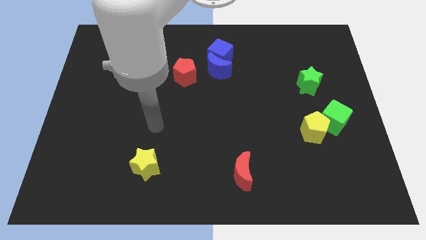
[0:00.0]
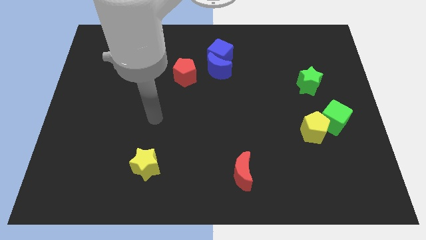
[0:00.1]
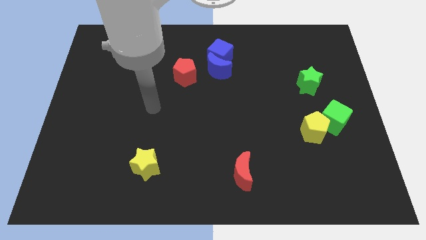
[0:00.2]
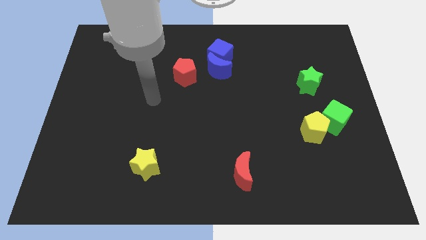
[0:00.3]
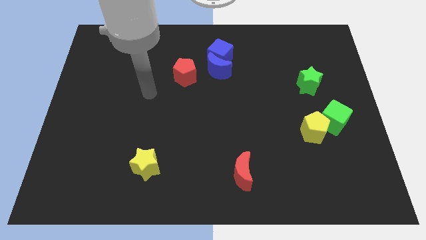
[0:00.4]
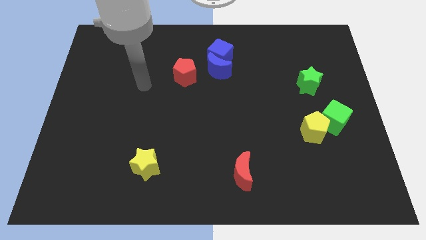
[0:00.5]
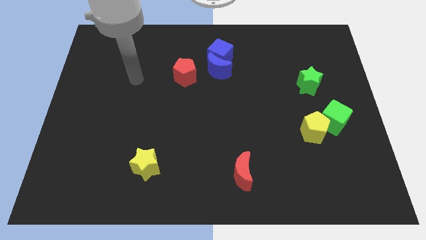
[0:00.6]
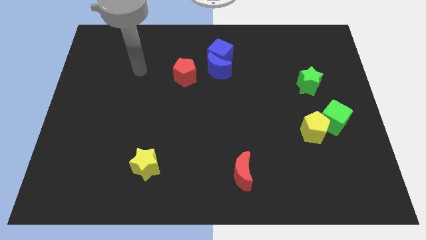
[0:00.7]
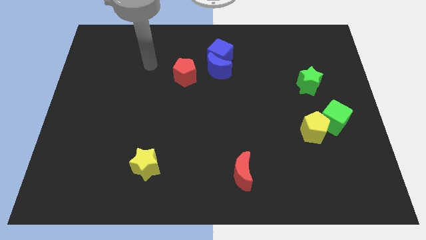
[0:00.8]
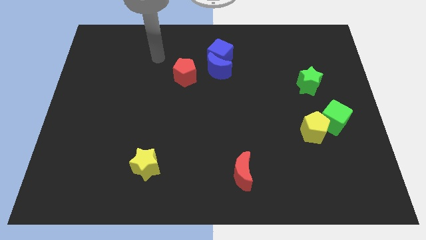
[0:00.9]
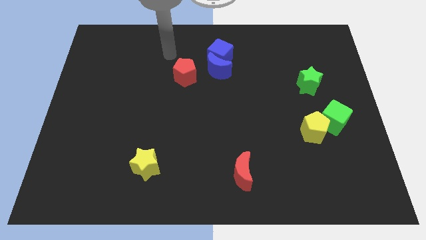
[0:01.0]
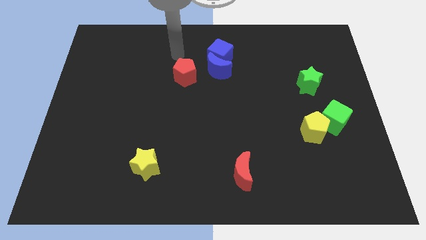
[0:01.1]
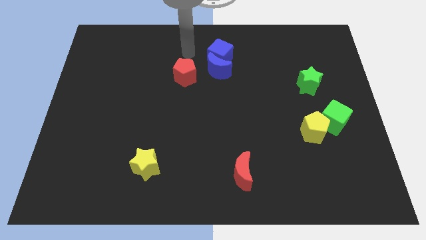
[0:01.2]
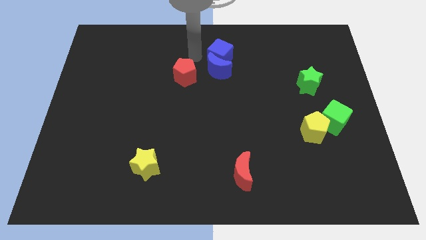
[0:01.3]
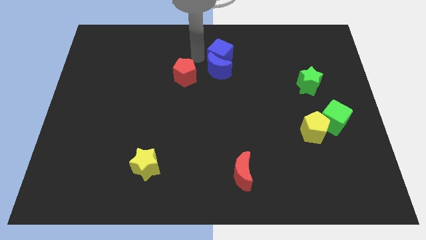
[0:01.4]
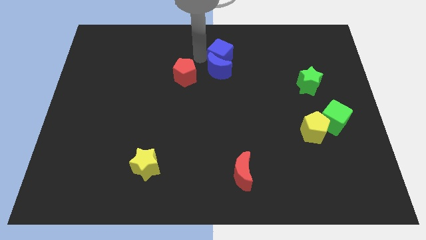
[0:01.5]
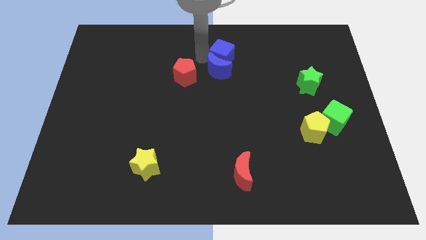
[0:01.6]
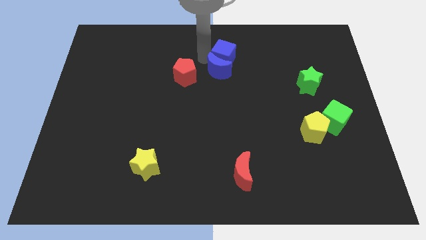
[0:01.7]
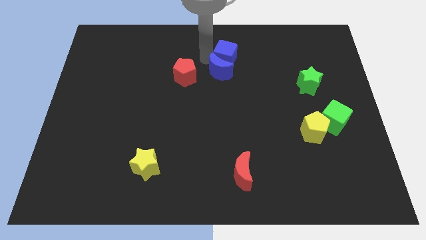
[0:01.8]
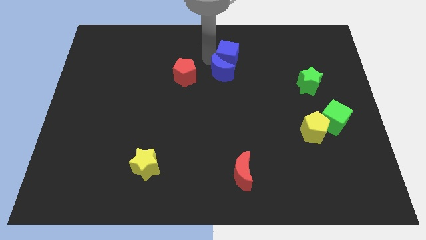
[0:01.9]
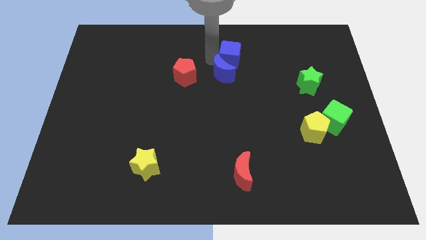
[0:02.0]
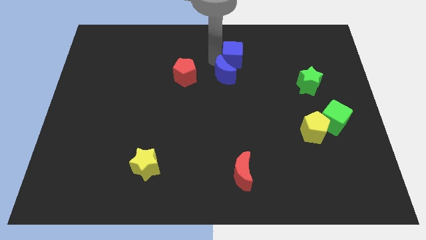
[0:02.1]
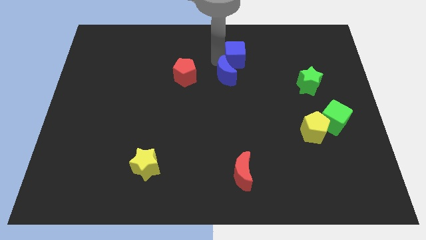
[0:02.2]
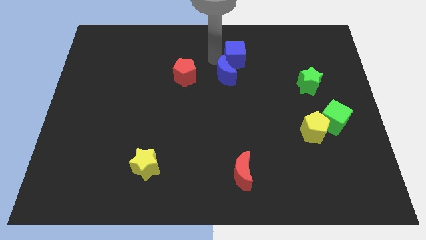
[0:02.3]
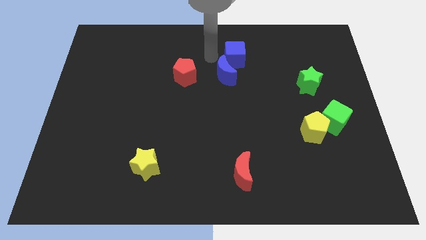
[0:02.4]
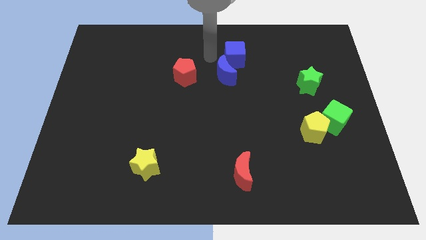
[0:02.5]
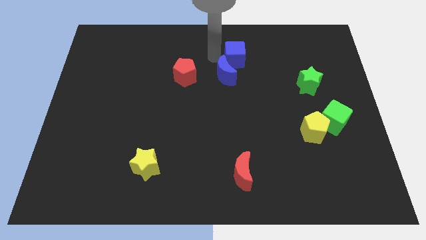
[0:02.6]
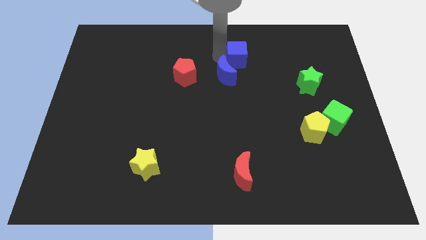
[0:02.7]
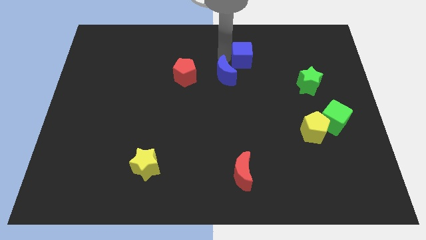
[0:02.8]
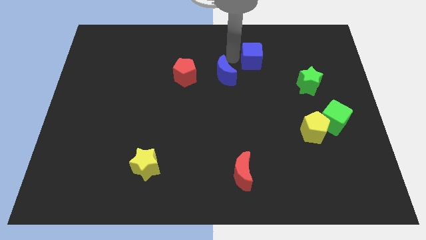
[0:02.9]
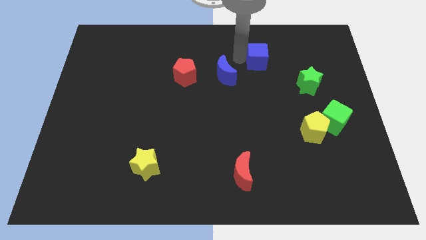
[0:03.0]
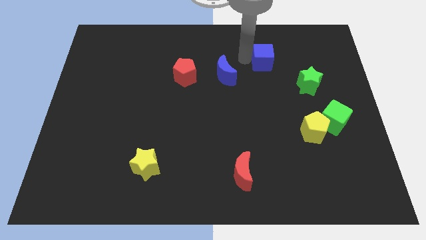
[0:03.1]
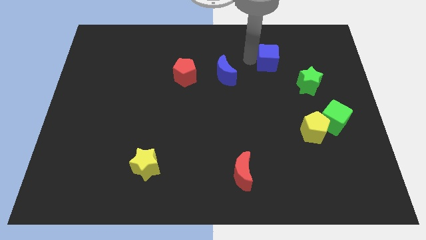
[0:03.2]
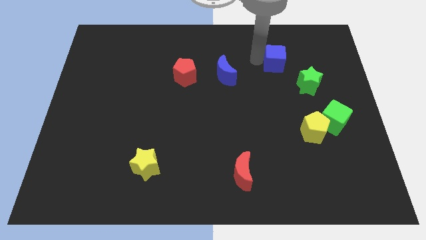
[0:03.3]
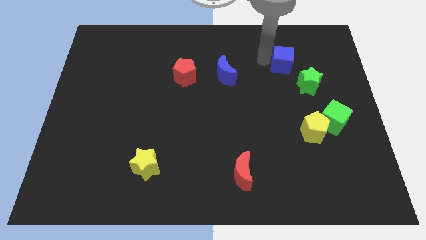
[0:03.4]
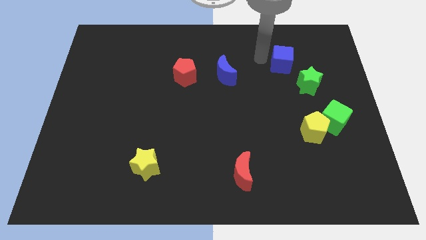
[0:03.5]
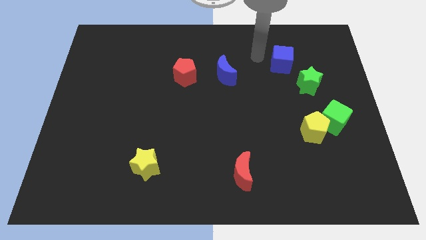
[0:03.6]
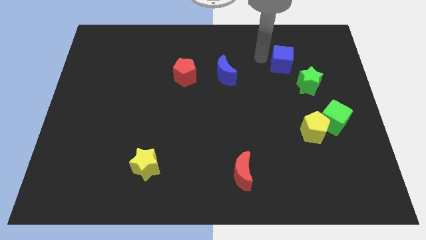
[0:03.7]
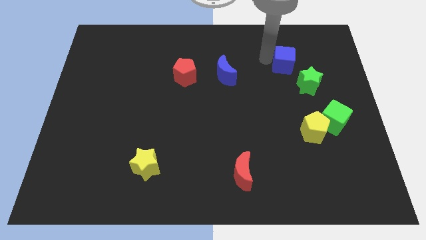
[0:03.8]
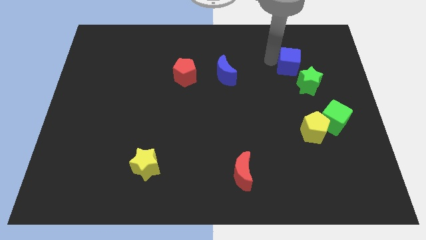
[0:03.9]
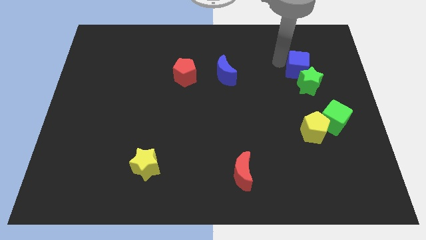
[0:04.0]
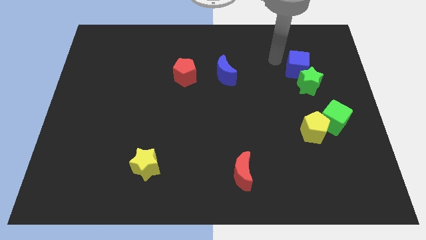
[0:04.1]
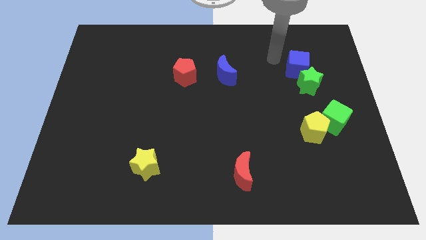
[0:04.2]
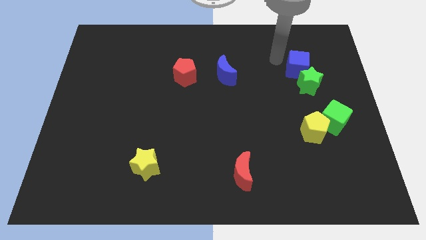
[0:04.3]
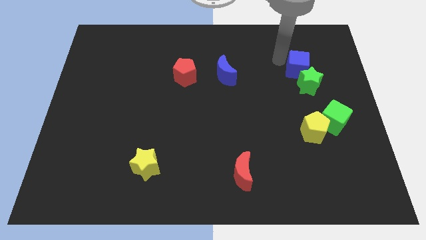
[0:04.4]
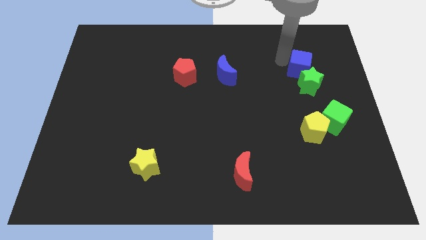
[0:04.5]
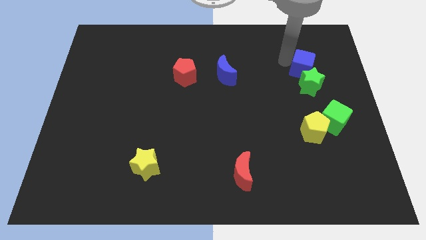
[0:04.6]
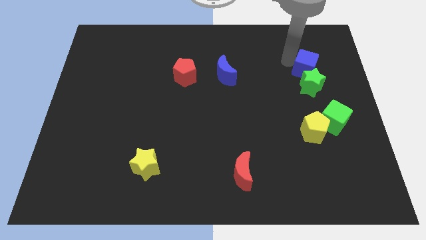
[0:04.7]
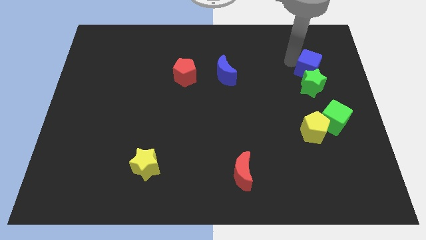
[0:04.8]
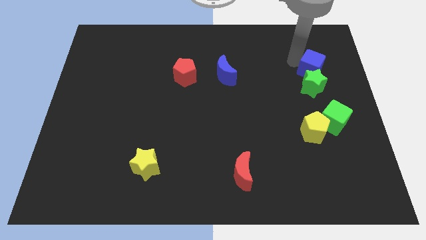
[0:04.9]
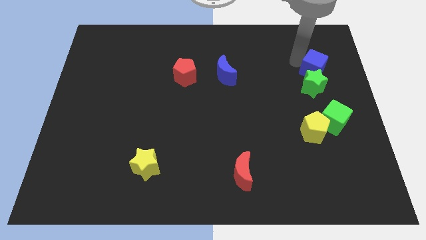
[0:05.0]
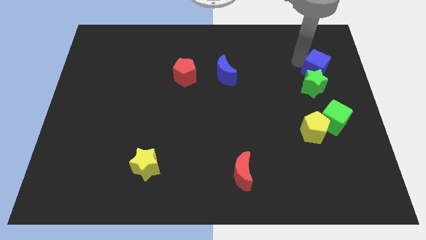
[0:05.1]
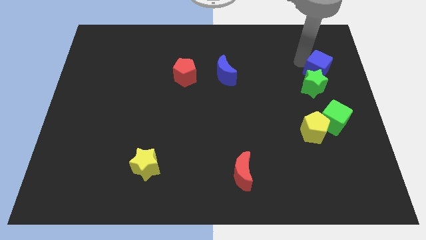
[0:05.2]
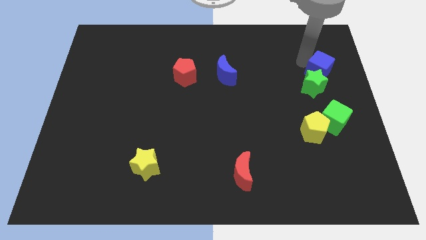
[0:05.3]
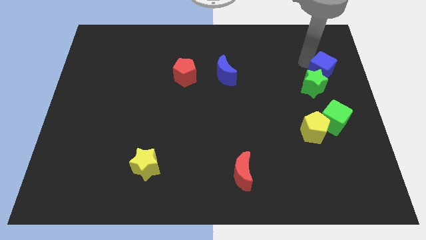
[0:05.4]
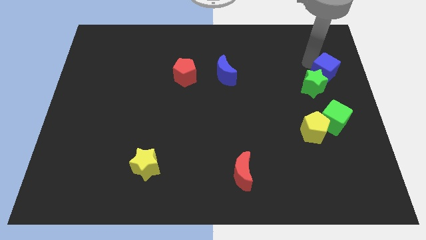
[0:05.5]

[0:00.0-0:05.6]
push the blue cube to the right side

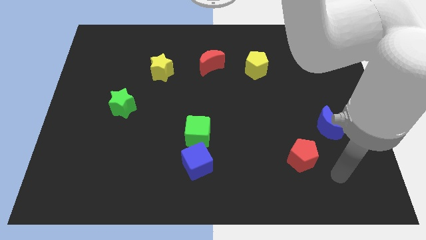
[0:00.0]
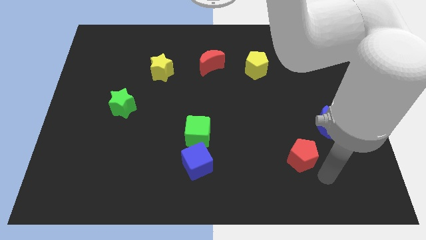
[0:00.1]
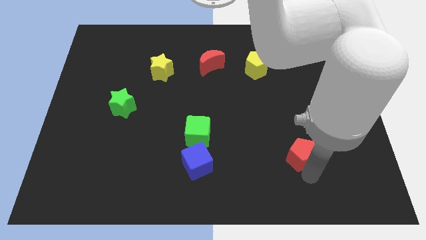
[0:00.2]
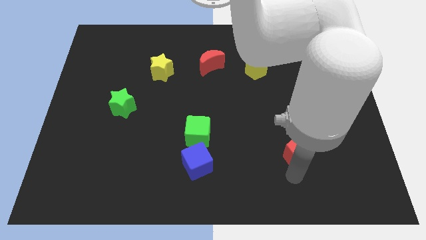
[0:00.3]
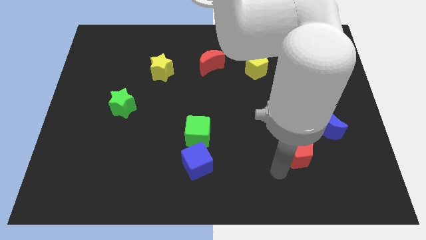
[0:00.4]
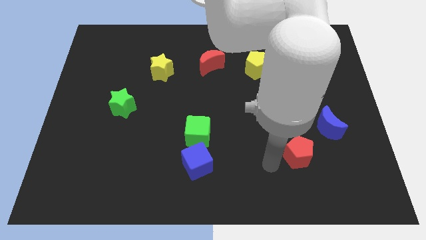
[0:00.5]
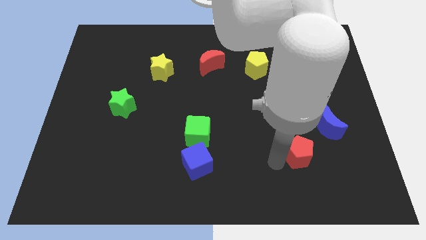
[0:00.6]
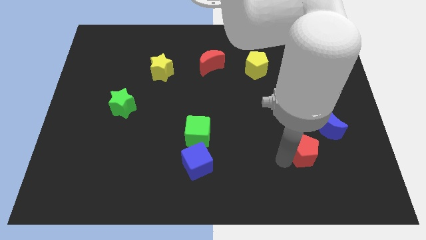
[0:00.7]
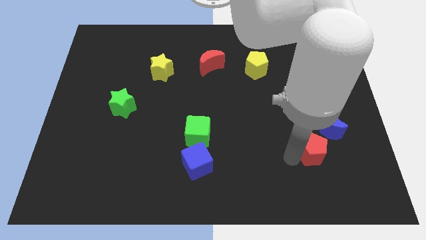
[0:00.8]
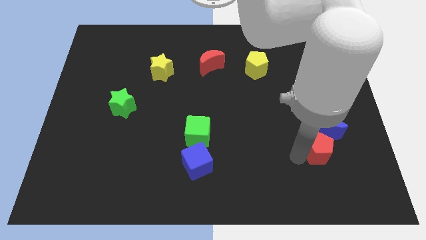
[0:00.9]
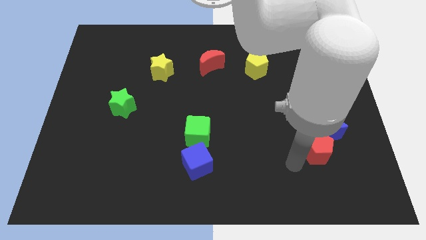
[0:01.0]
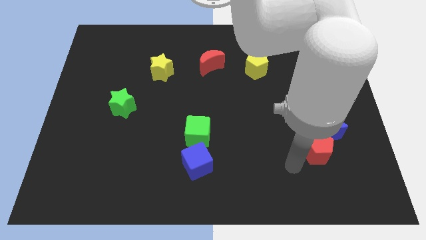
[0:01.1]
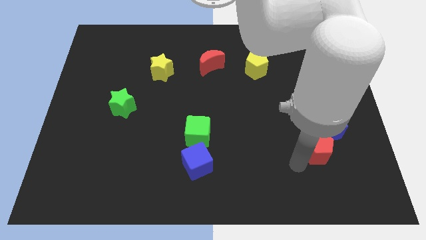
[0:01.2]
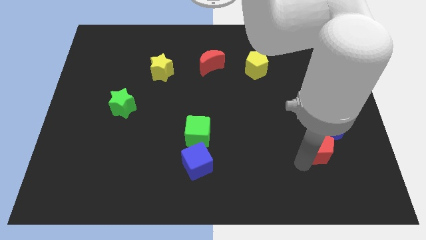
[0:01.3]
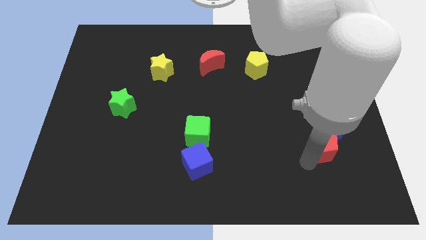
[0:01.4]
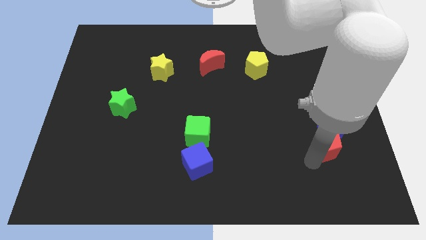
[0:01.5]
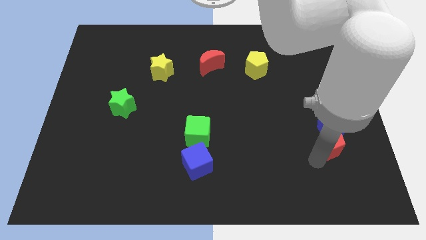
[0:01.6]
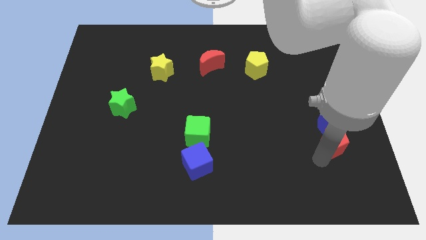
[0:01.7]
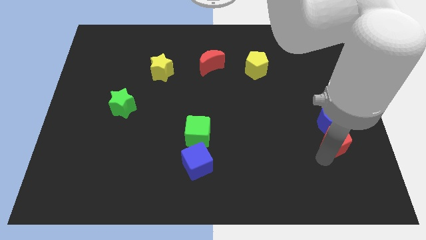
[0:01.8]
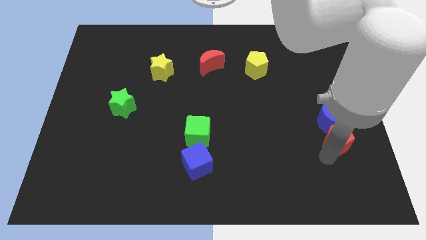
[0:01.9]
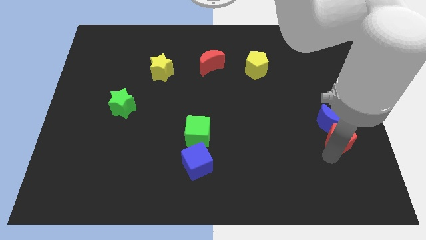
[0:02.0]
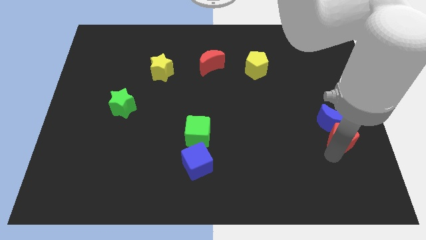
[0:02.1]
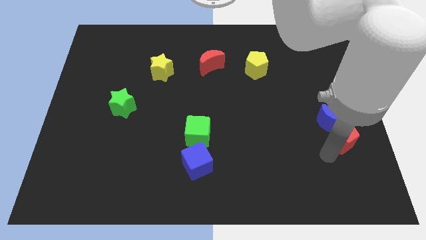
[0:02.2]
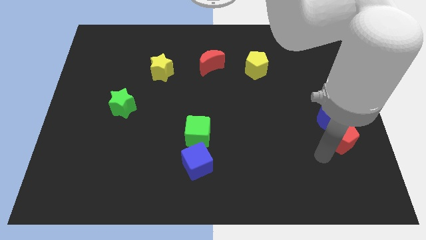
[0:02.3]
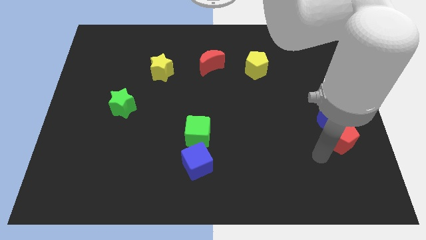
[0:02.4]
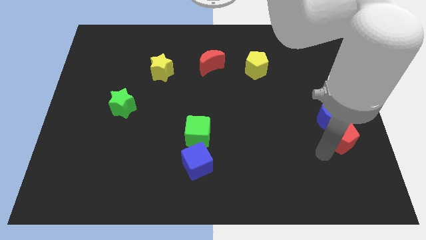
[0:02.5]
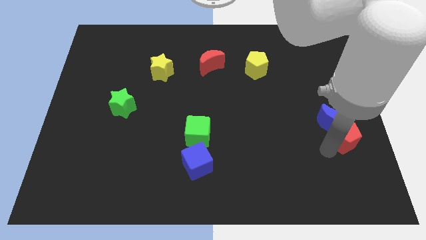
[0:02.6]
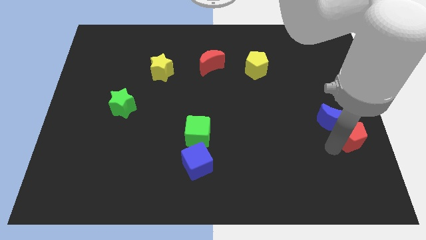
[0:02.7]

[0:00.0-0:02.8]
push the red pentagon to the center right
